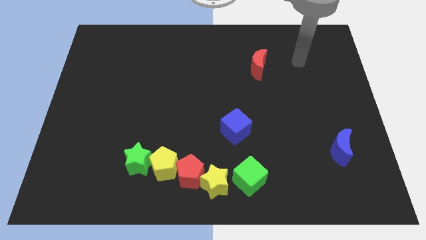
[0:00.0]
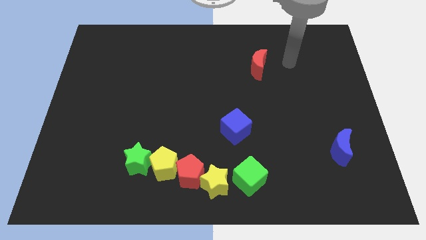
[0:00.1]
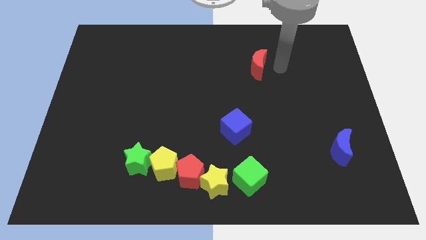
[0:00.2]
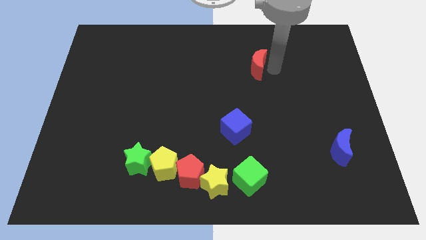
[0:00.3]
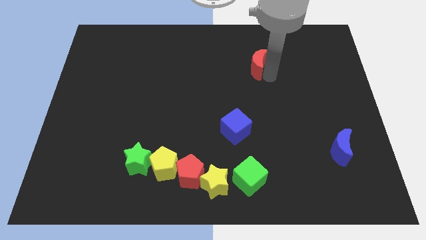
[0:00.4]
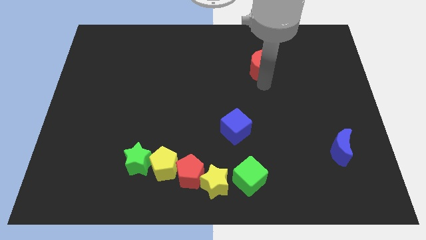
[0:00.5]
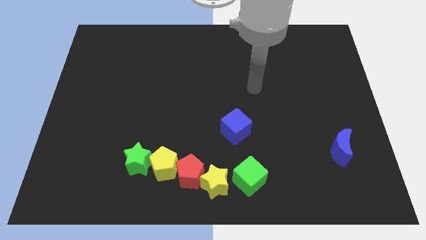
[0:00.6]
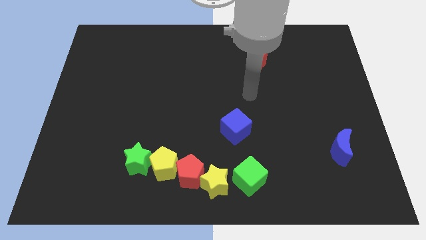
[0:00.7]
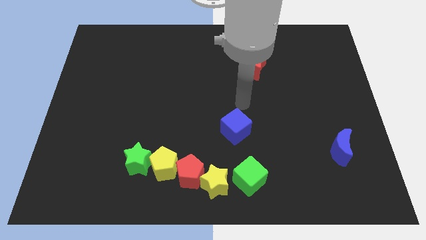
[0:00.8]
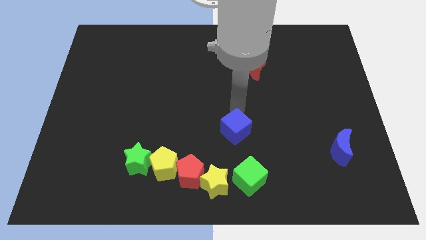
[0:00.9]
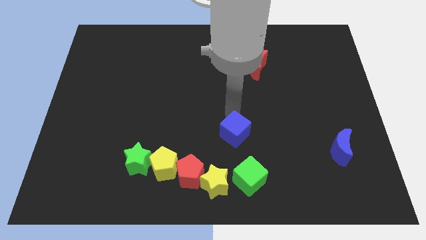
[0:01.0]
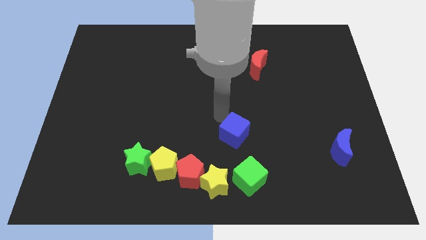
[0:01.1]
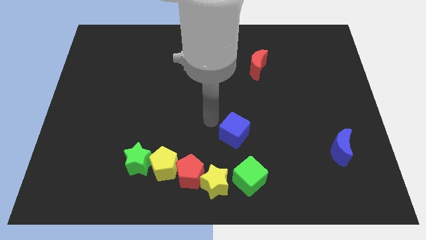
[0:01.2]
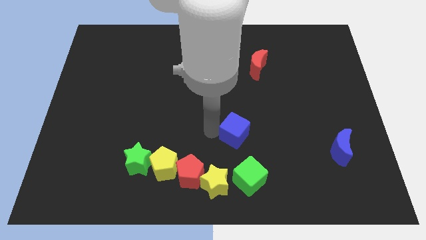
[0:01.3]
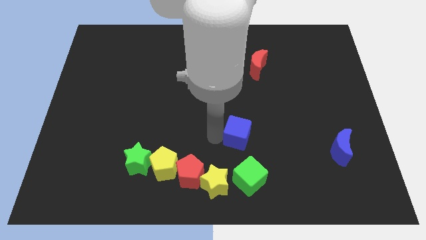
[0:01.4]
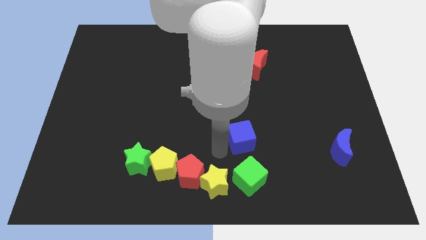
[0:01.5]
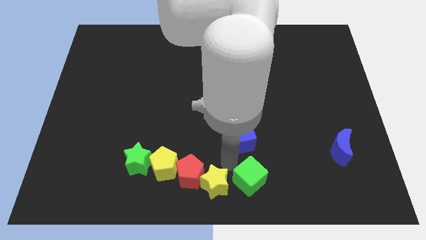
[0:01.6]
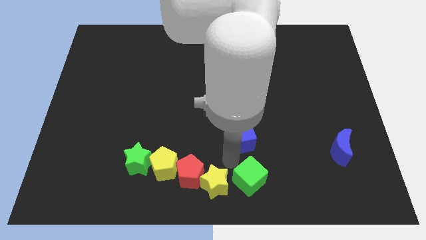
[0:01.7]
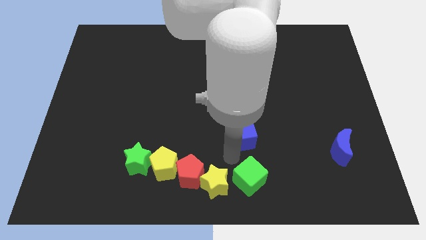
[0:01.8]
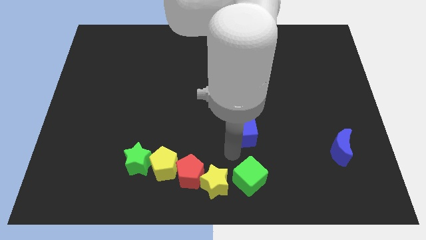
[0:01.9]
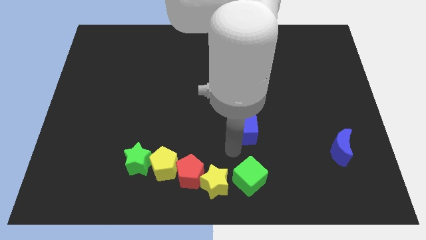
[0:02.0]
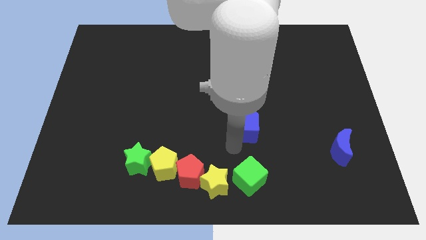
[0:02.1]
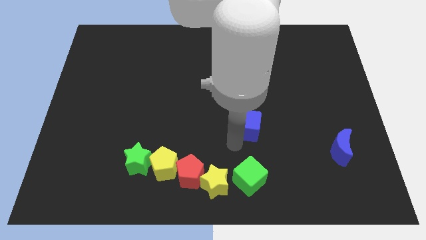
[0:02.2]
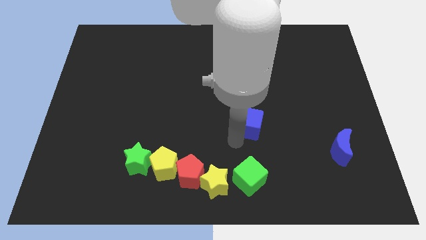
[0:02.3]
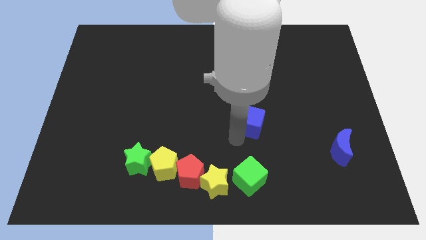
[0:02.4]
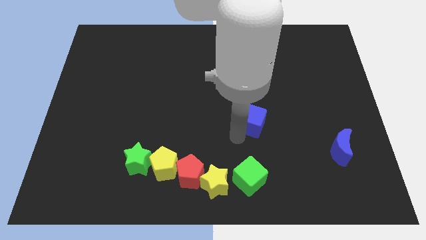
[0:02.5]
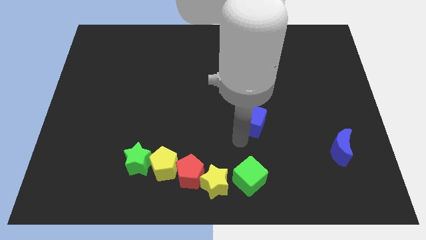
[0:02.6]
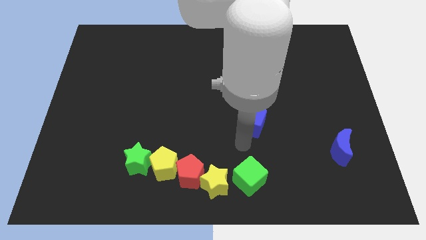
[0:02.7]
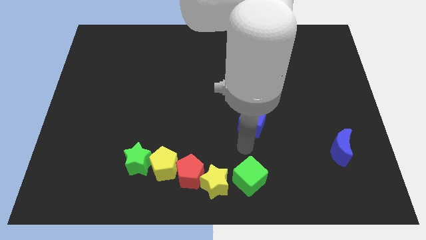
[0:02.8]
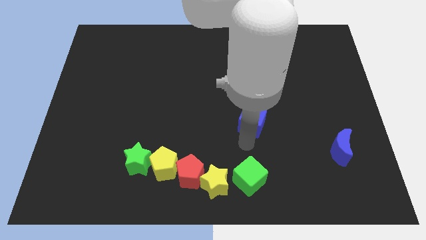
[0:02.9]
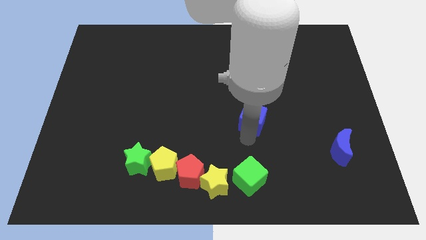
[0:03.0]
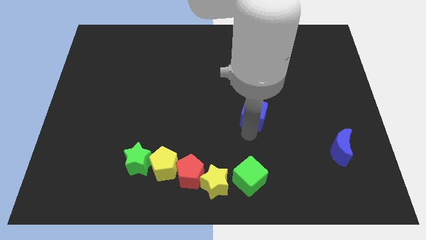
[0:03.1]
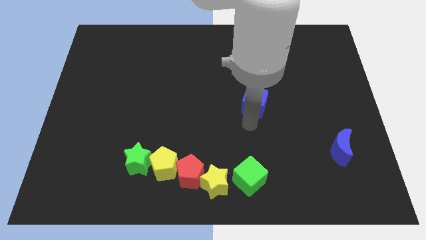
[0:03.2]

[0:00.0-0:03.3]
slightly move the blue cube upwards and right

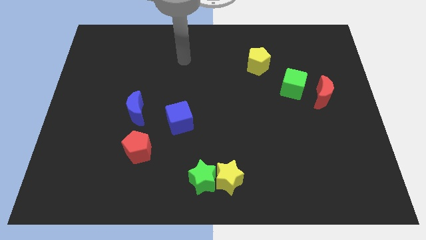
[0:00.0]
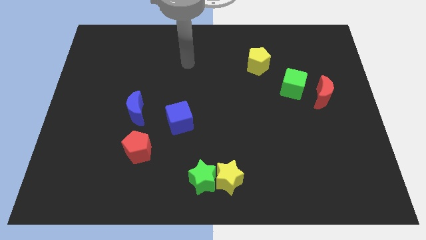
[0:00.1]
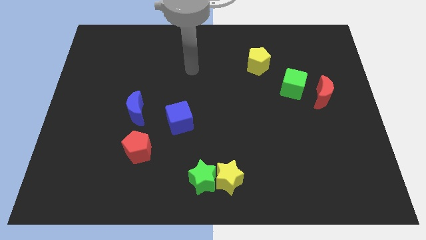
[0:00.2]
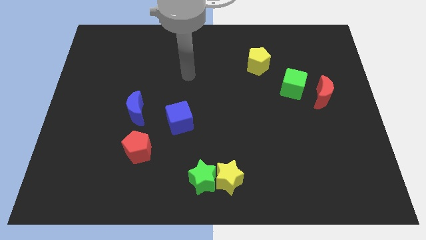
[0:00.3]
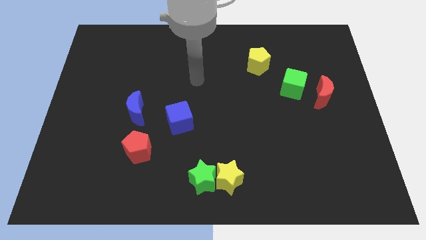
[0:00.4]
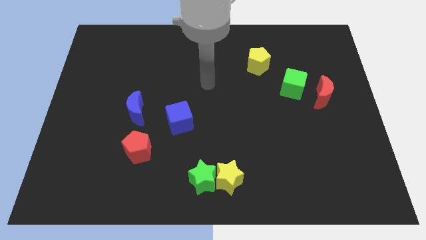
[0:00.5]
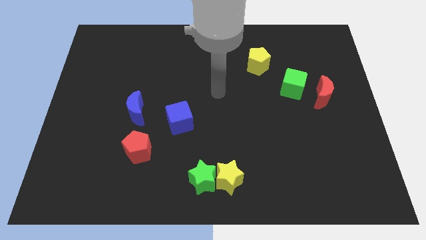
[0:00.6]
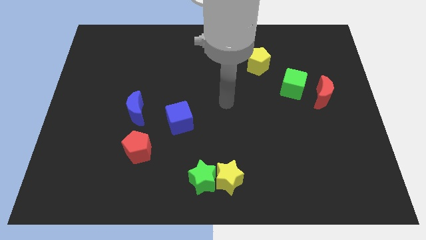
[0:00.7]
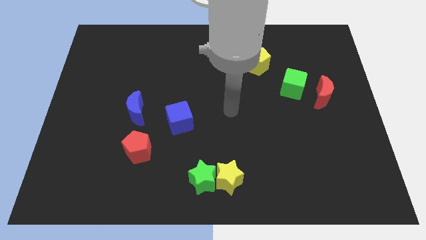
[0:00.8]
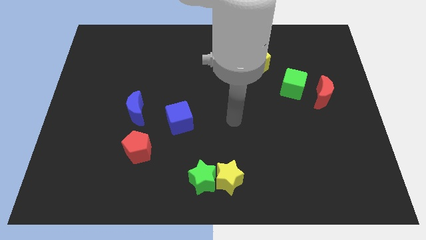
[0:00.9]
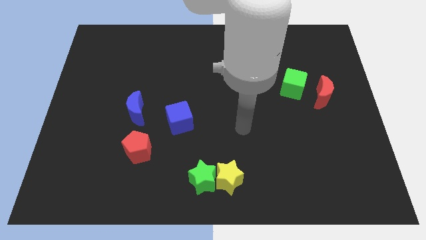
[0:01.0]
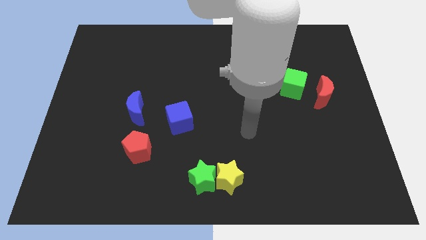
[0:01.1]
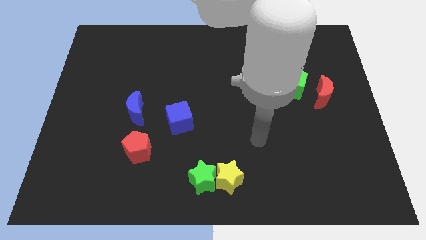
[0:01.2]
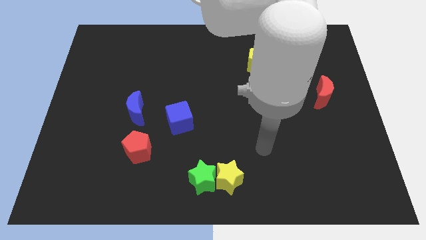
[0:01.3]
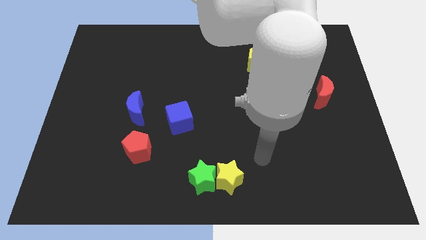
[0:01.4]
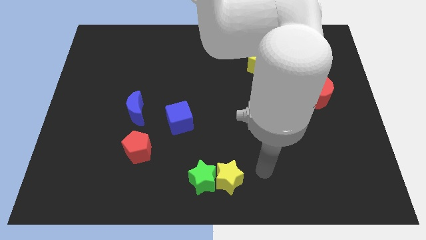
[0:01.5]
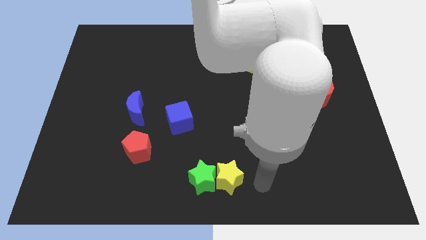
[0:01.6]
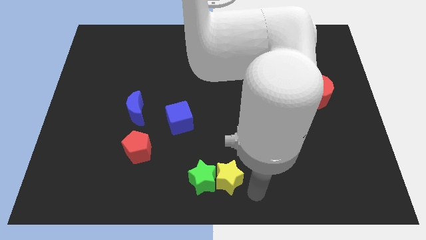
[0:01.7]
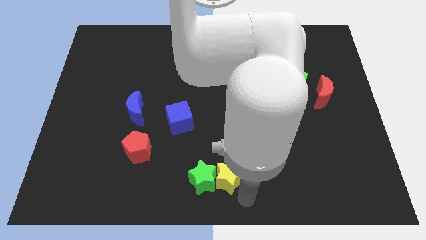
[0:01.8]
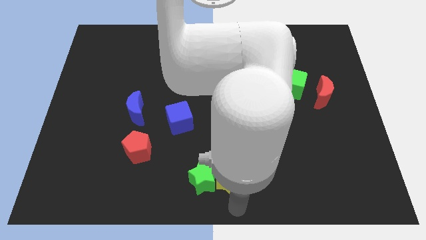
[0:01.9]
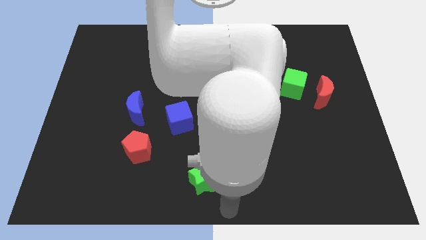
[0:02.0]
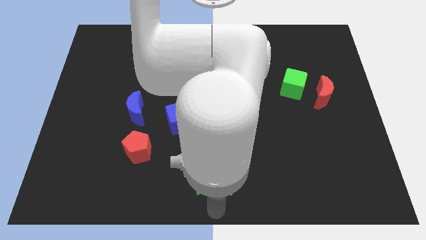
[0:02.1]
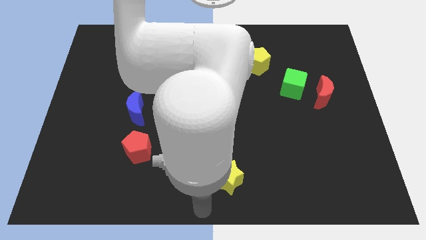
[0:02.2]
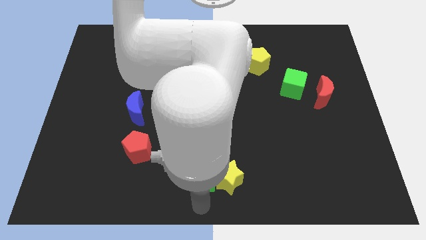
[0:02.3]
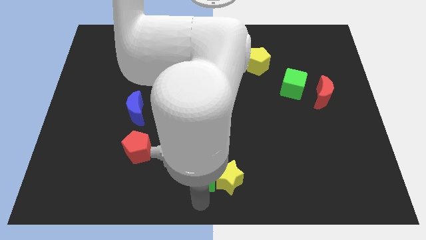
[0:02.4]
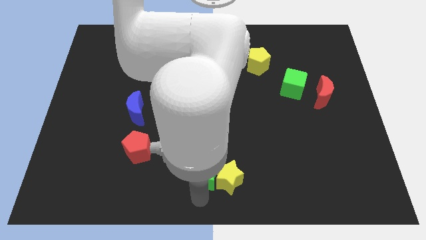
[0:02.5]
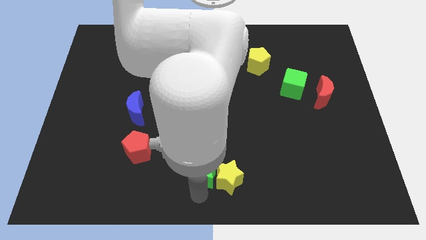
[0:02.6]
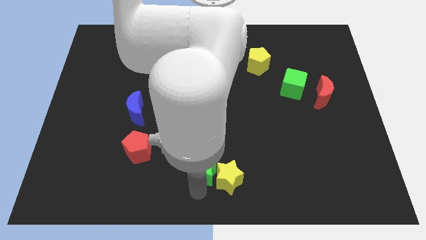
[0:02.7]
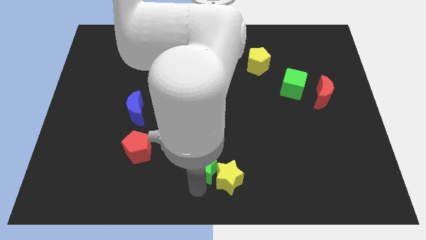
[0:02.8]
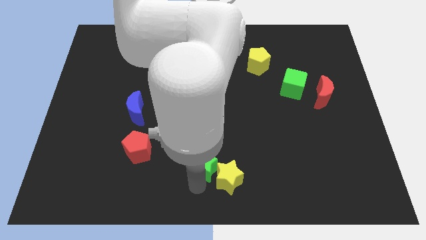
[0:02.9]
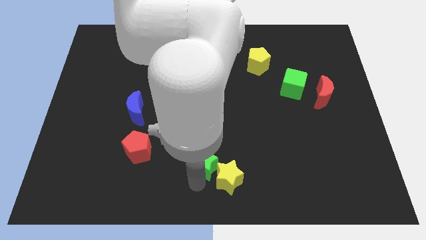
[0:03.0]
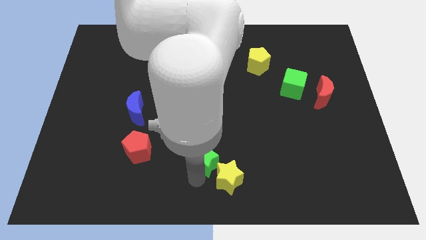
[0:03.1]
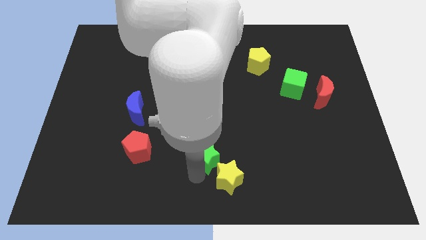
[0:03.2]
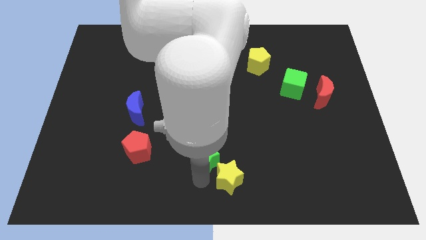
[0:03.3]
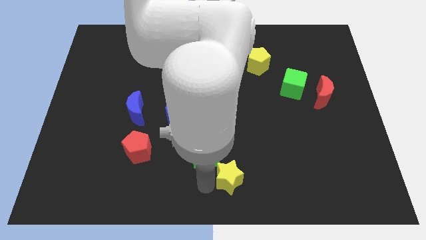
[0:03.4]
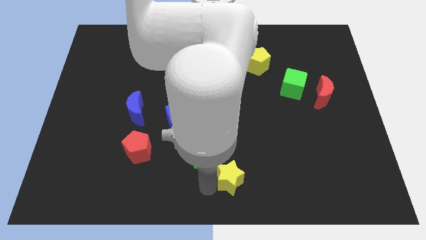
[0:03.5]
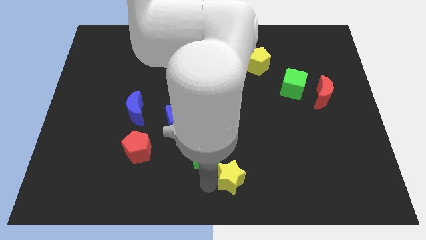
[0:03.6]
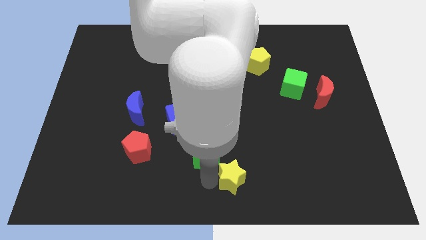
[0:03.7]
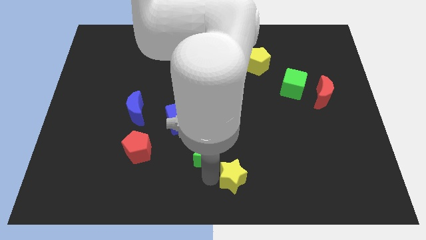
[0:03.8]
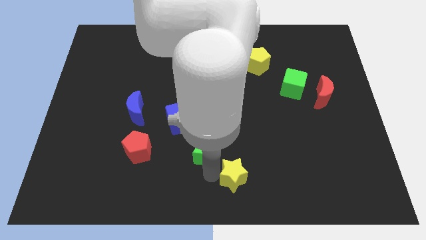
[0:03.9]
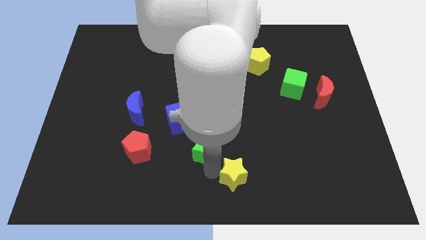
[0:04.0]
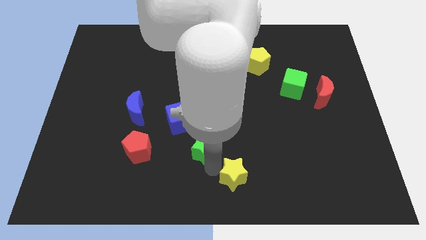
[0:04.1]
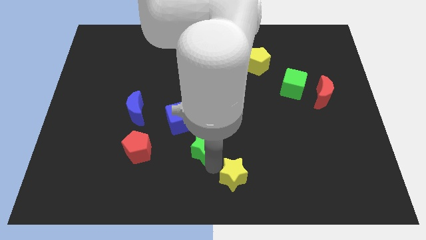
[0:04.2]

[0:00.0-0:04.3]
slightly move the green star upwards

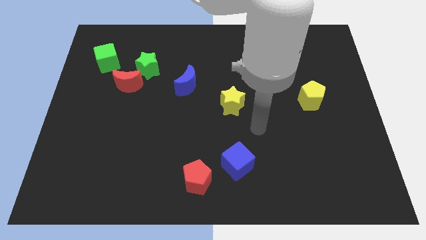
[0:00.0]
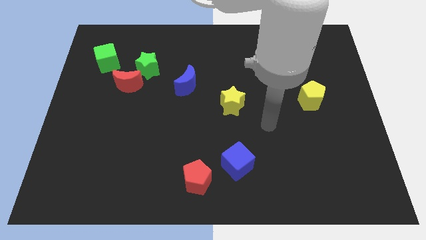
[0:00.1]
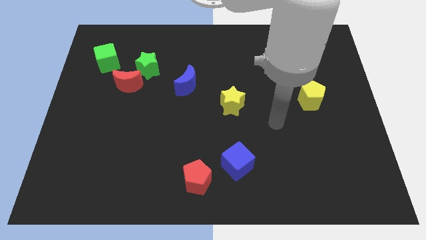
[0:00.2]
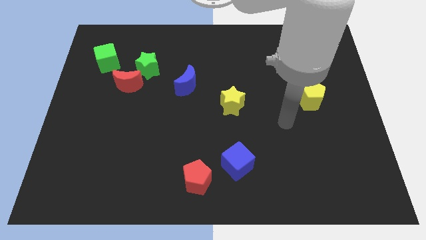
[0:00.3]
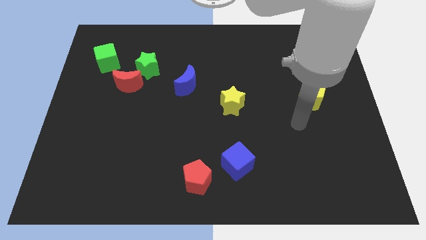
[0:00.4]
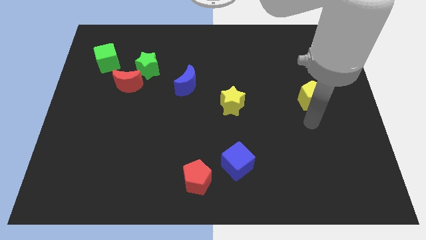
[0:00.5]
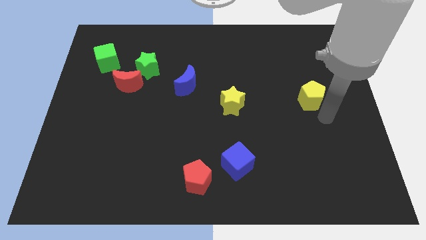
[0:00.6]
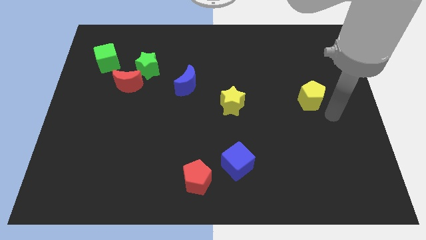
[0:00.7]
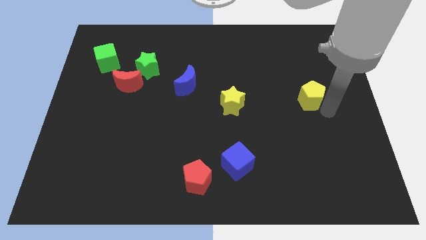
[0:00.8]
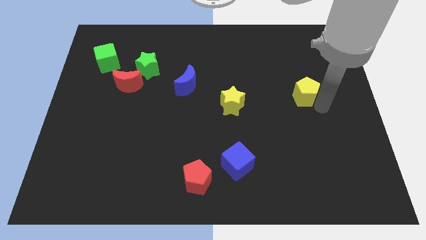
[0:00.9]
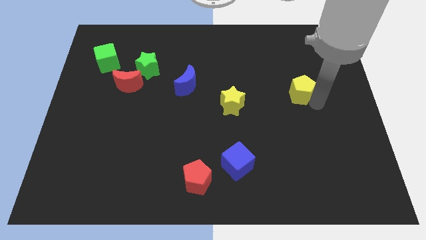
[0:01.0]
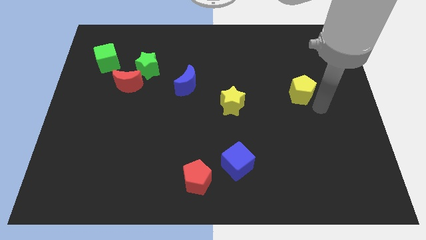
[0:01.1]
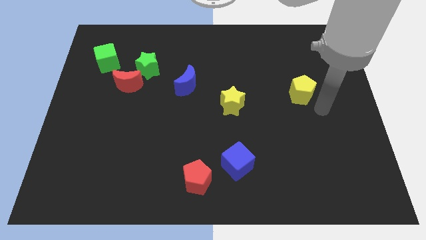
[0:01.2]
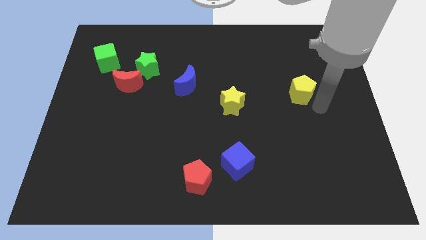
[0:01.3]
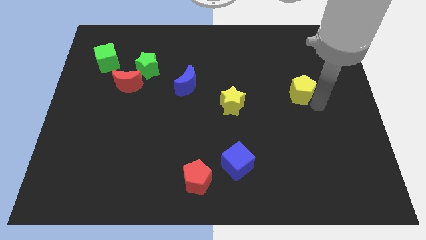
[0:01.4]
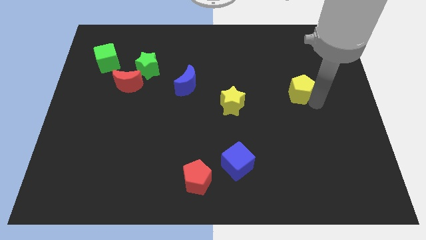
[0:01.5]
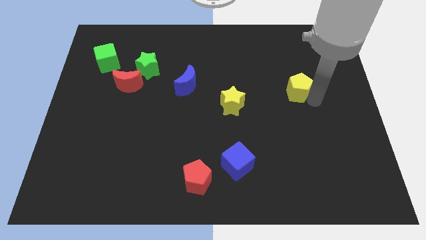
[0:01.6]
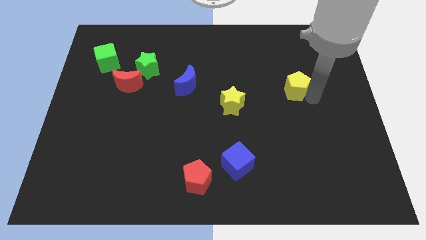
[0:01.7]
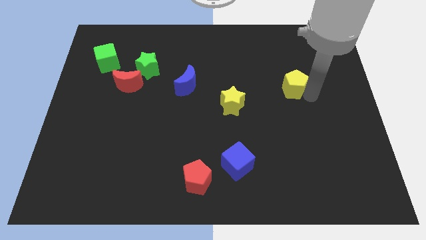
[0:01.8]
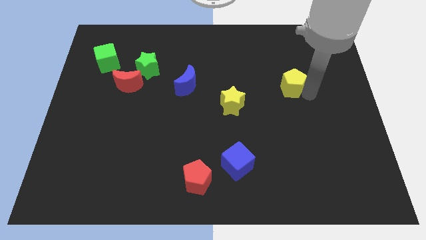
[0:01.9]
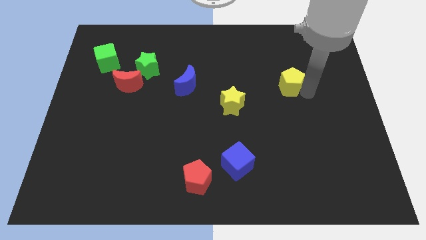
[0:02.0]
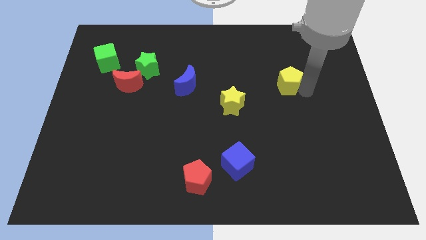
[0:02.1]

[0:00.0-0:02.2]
slightly move the yellow pentagon up and then to the left
